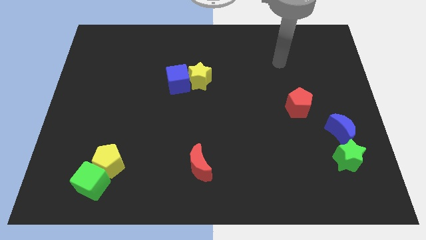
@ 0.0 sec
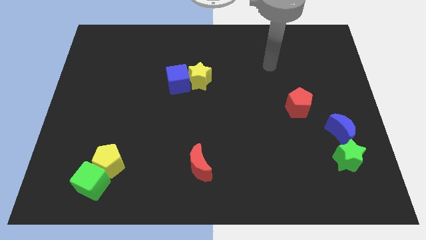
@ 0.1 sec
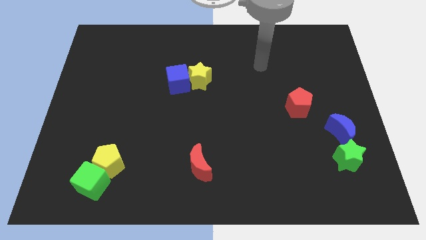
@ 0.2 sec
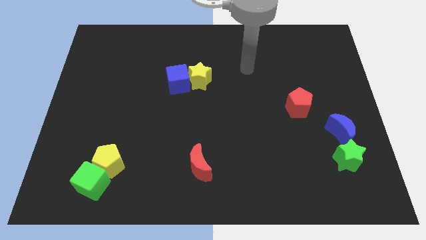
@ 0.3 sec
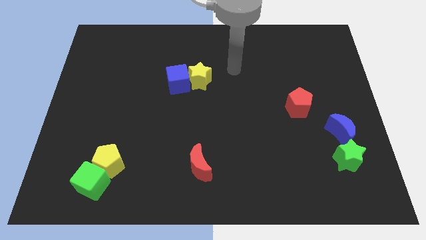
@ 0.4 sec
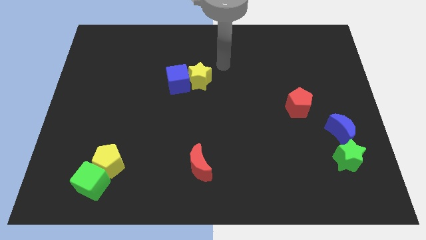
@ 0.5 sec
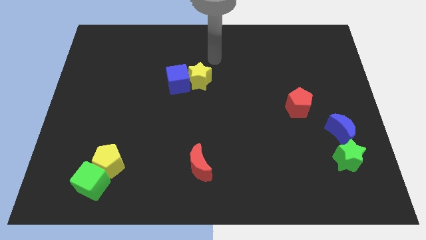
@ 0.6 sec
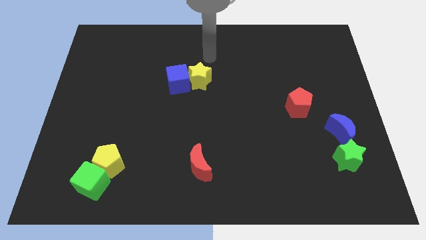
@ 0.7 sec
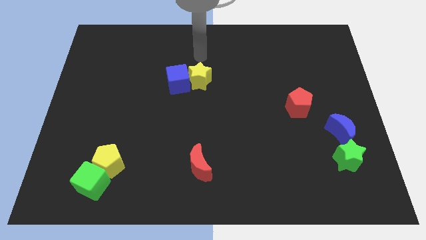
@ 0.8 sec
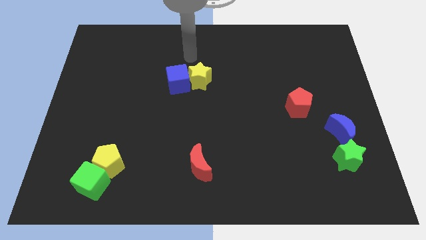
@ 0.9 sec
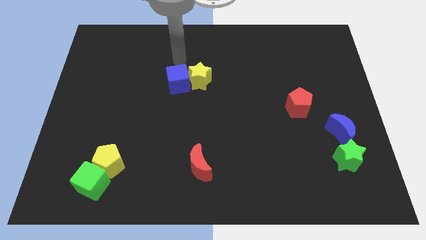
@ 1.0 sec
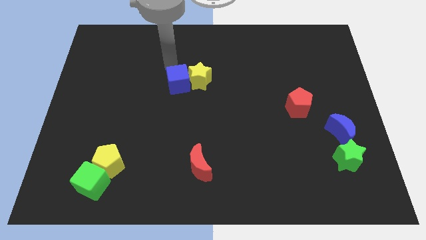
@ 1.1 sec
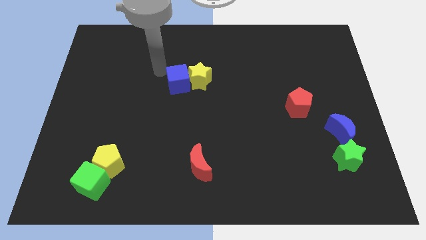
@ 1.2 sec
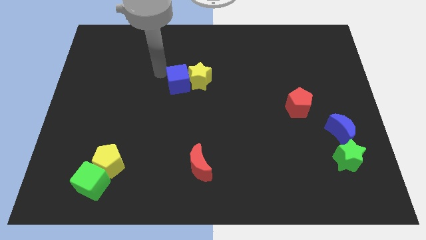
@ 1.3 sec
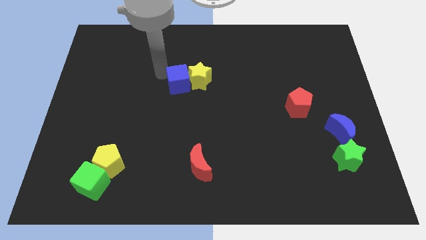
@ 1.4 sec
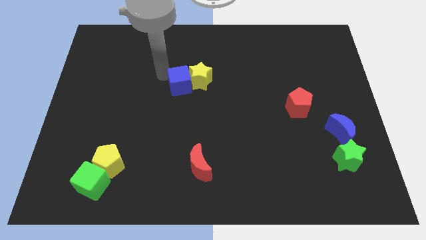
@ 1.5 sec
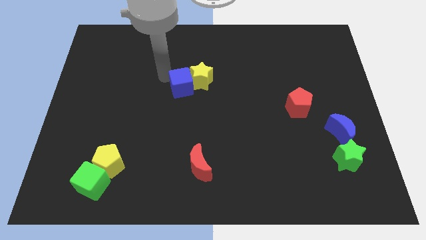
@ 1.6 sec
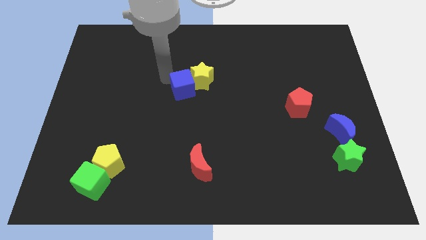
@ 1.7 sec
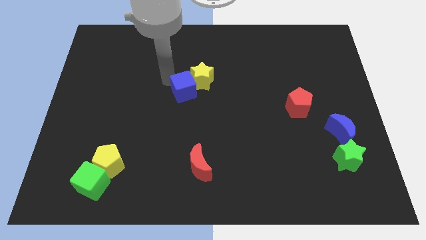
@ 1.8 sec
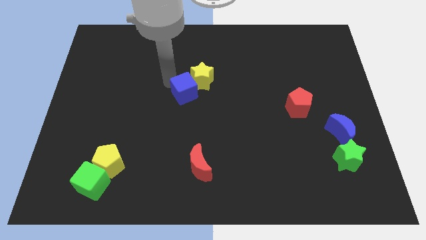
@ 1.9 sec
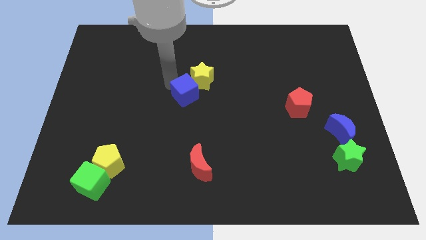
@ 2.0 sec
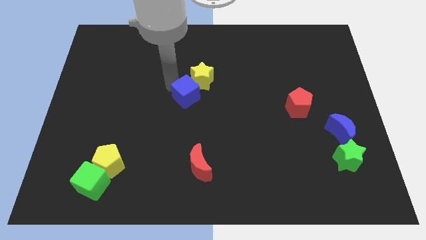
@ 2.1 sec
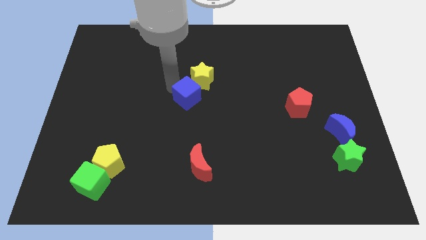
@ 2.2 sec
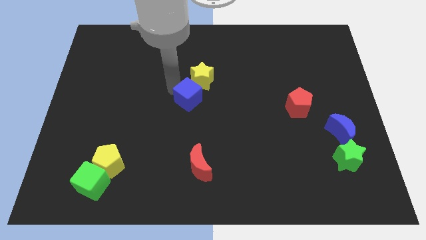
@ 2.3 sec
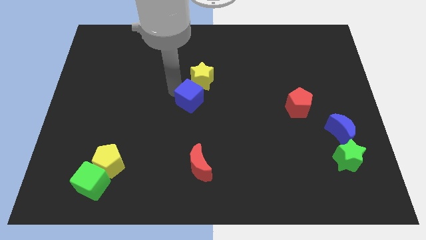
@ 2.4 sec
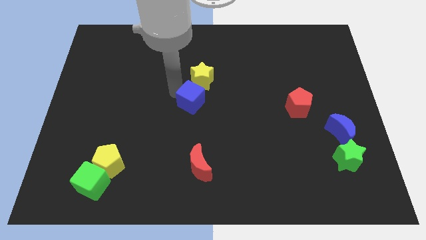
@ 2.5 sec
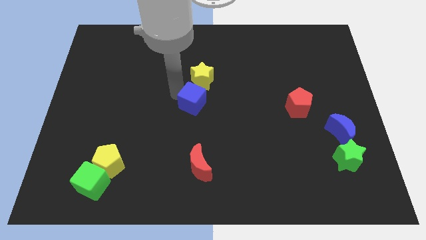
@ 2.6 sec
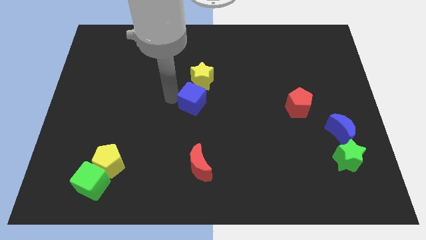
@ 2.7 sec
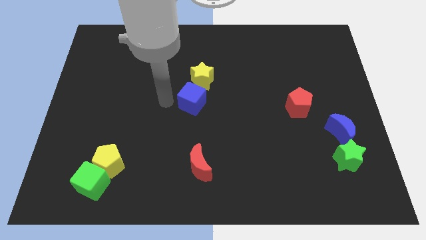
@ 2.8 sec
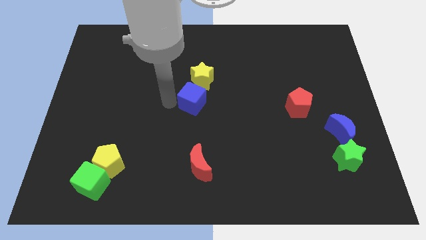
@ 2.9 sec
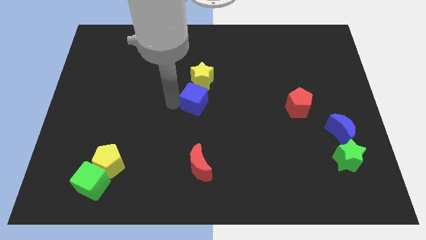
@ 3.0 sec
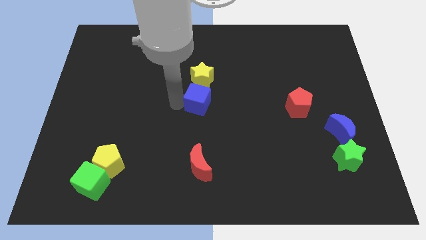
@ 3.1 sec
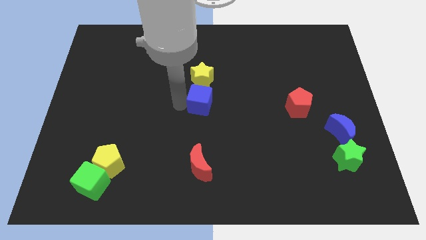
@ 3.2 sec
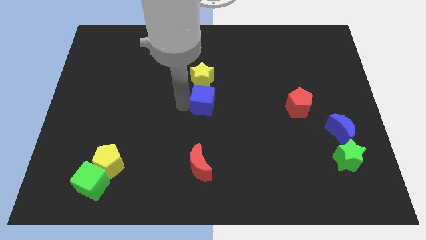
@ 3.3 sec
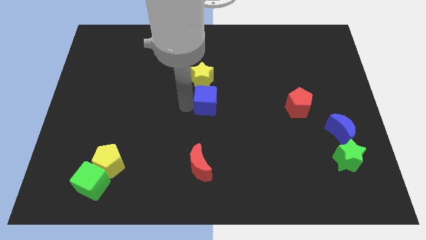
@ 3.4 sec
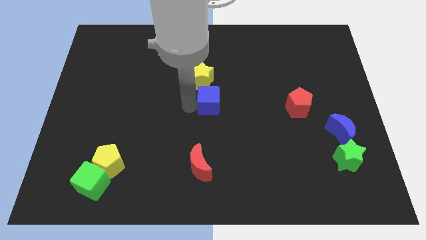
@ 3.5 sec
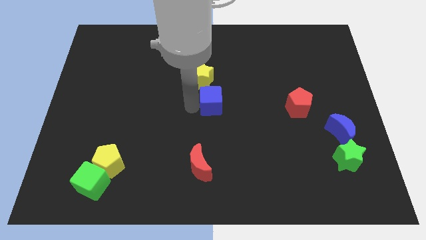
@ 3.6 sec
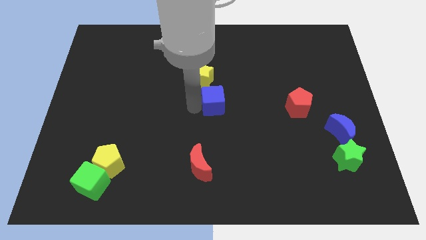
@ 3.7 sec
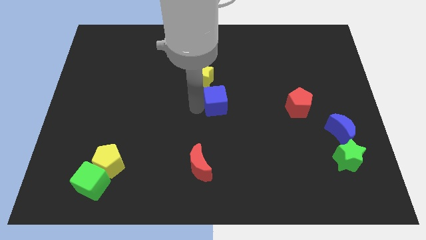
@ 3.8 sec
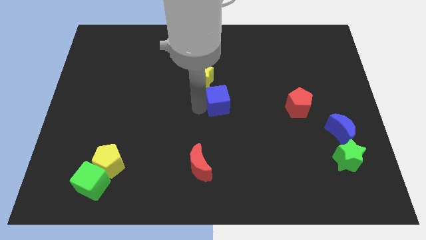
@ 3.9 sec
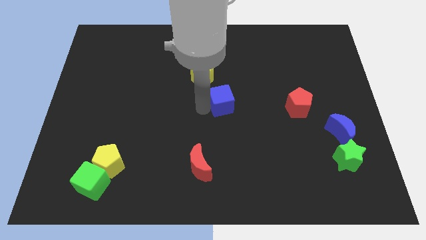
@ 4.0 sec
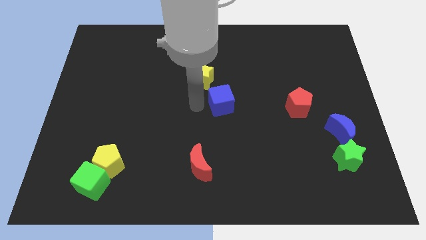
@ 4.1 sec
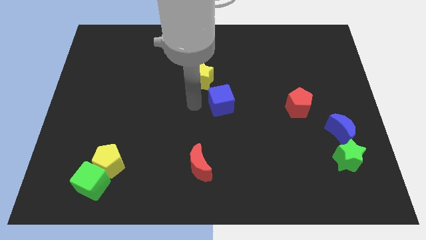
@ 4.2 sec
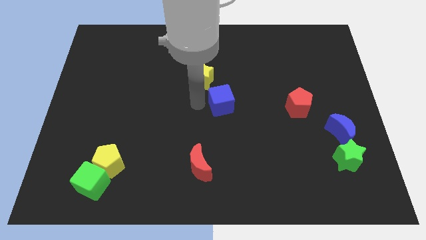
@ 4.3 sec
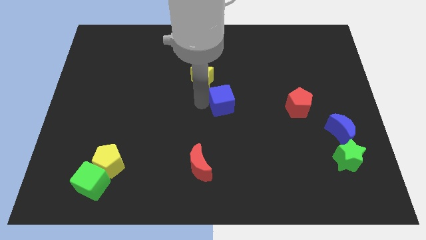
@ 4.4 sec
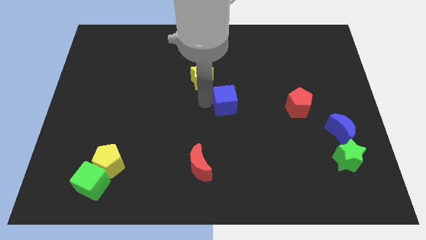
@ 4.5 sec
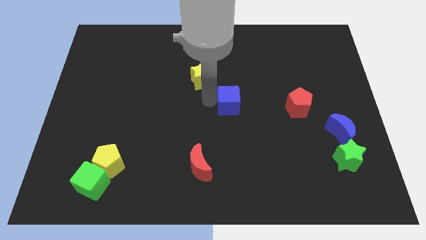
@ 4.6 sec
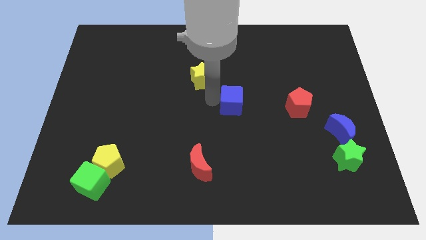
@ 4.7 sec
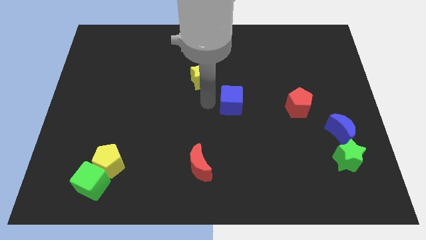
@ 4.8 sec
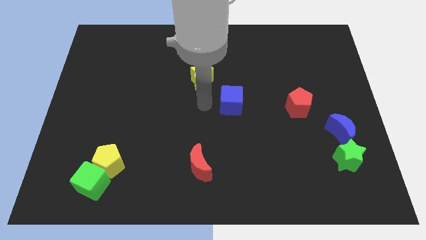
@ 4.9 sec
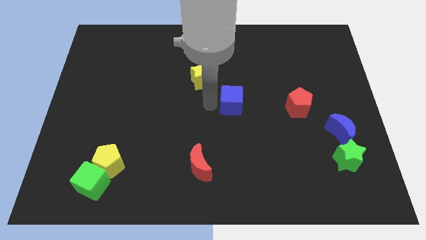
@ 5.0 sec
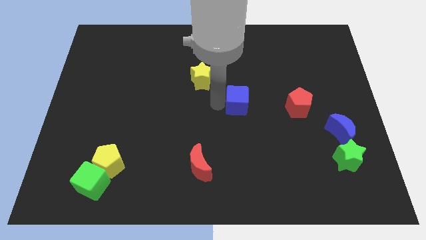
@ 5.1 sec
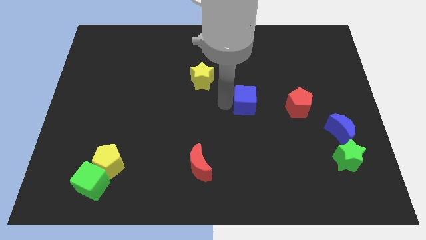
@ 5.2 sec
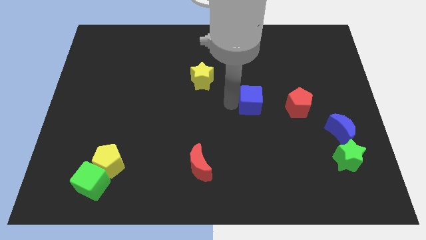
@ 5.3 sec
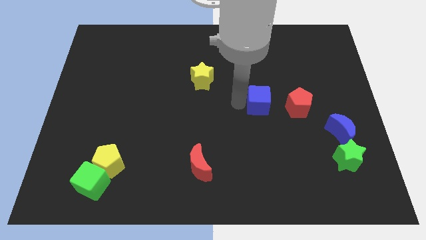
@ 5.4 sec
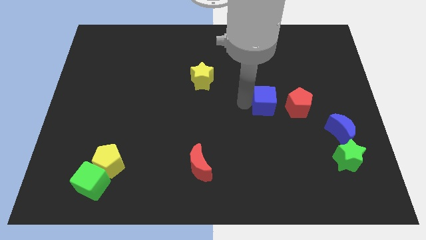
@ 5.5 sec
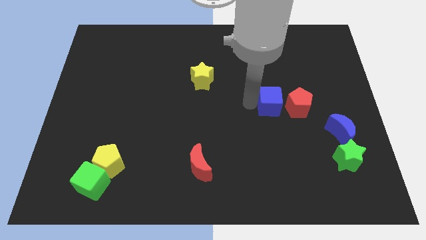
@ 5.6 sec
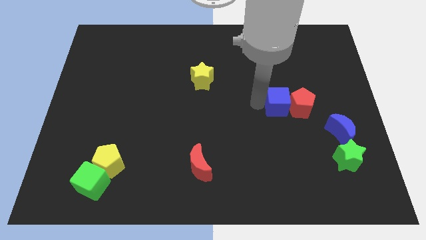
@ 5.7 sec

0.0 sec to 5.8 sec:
put the blue cube towards the red pentagon
